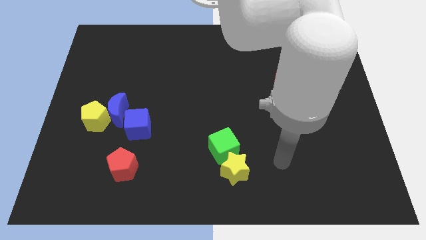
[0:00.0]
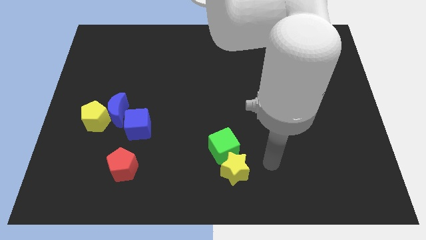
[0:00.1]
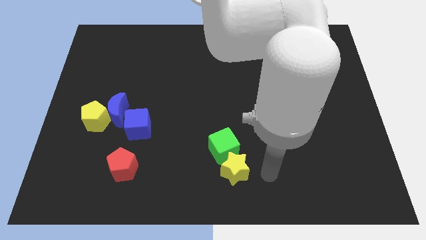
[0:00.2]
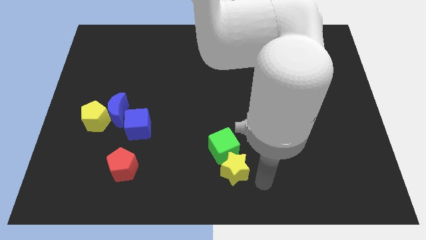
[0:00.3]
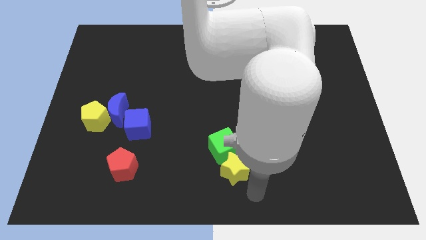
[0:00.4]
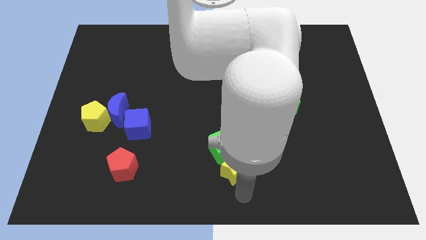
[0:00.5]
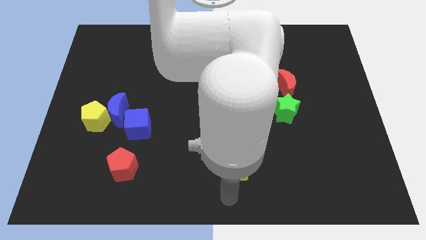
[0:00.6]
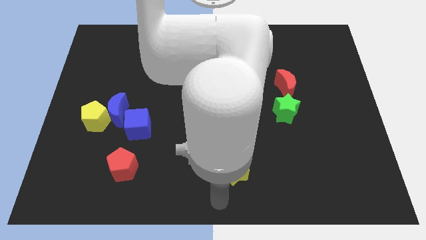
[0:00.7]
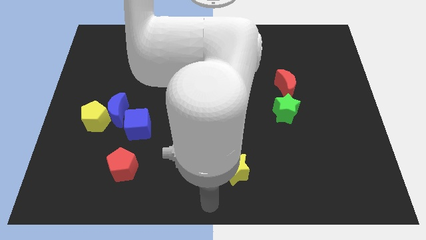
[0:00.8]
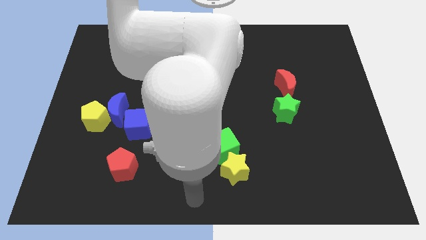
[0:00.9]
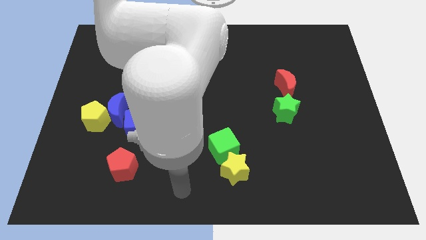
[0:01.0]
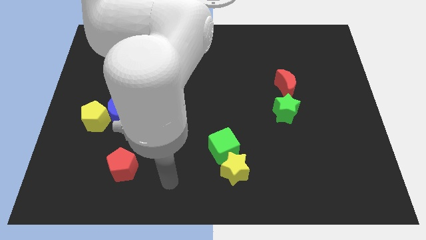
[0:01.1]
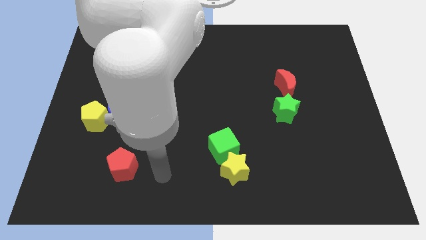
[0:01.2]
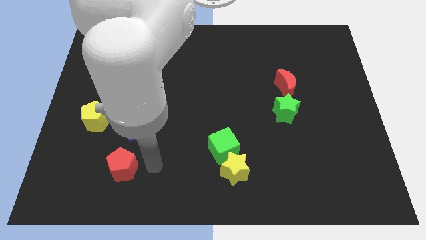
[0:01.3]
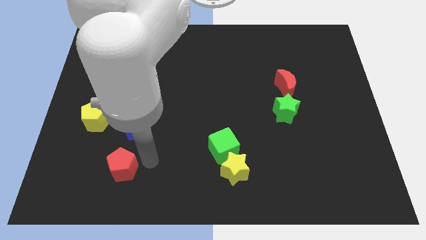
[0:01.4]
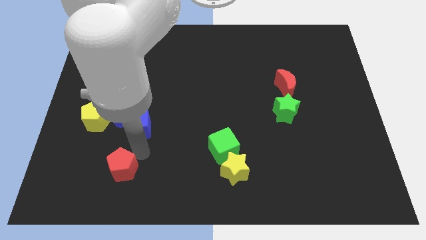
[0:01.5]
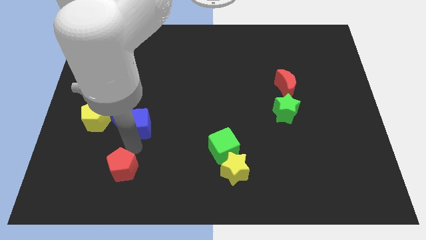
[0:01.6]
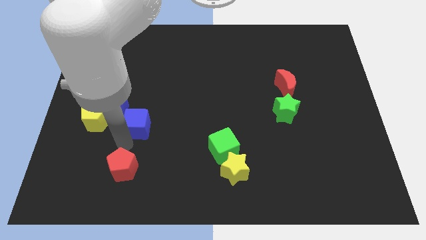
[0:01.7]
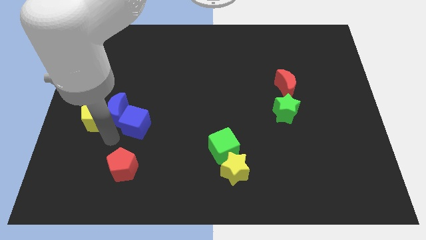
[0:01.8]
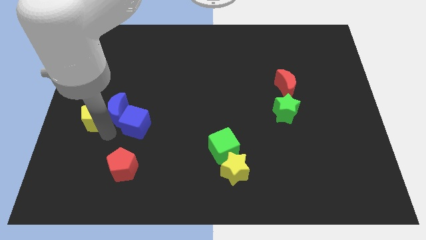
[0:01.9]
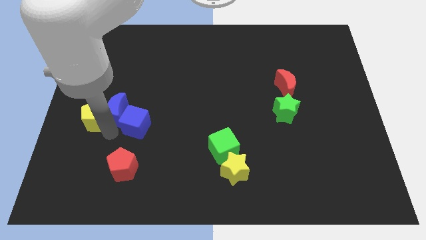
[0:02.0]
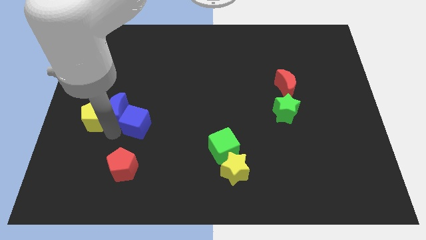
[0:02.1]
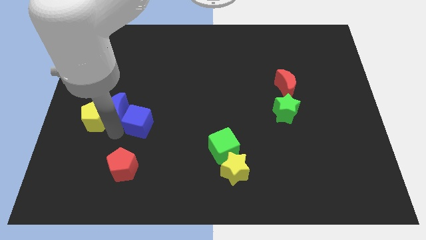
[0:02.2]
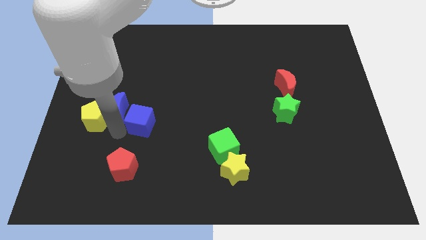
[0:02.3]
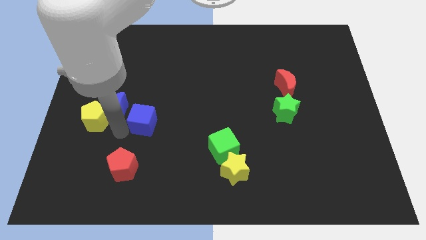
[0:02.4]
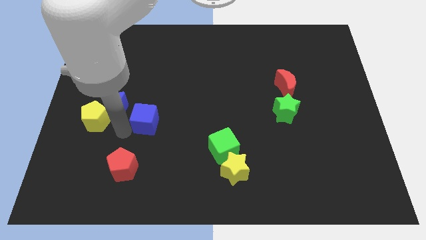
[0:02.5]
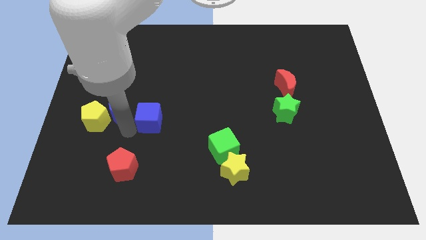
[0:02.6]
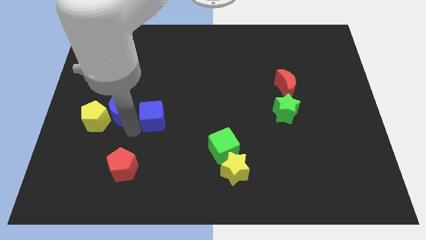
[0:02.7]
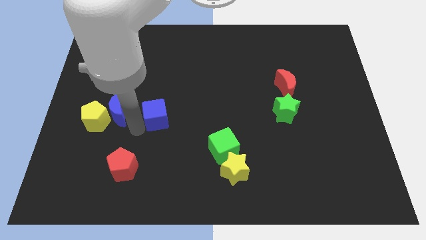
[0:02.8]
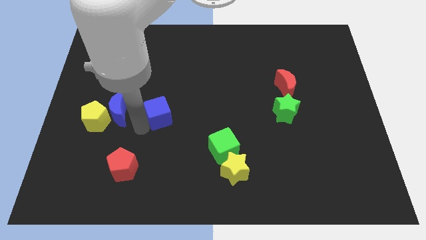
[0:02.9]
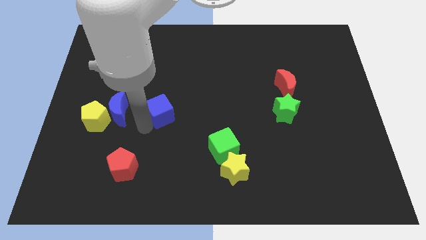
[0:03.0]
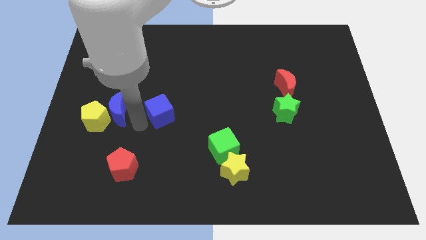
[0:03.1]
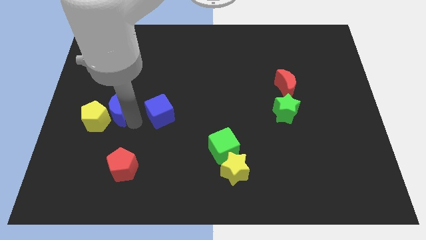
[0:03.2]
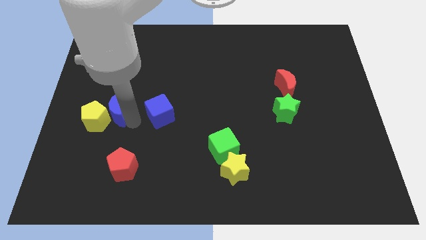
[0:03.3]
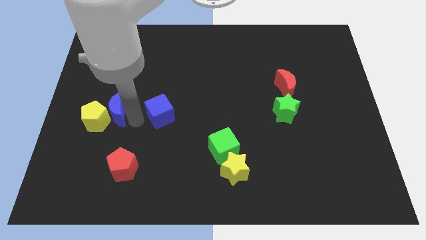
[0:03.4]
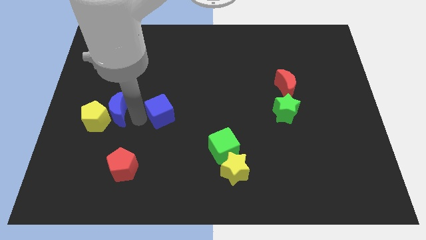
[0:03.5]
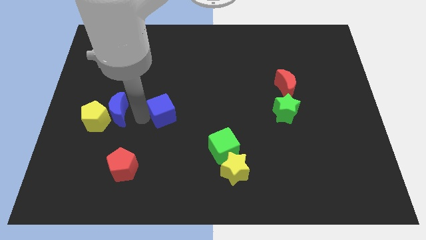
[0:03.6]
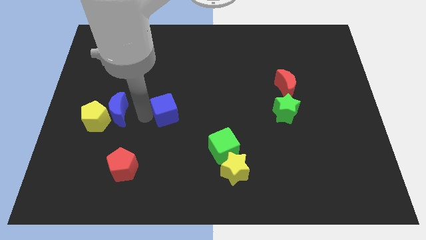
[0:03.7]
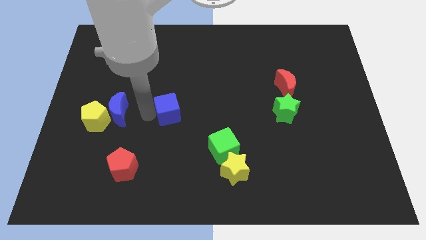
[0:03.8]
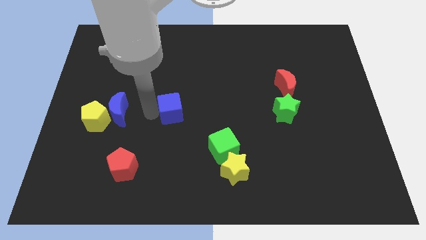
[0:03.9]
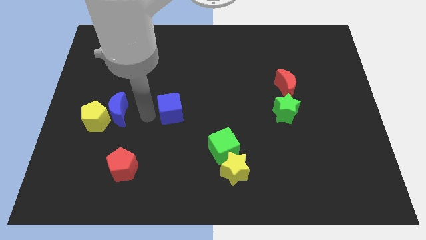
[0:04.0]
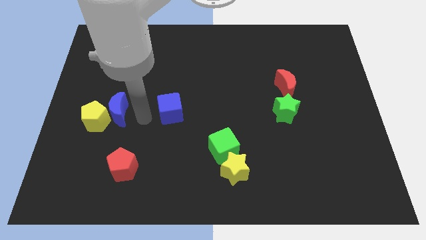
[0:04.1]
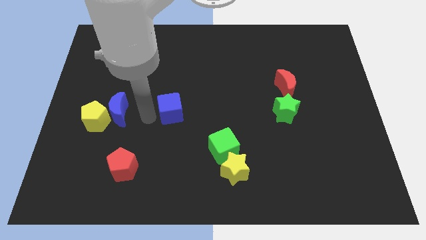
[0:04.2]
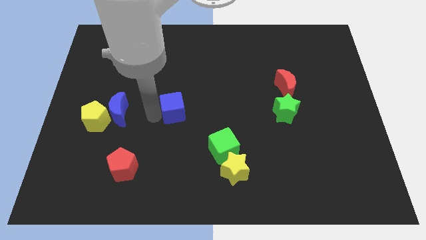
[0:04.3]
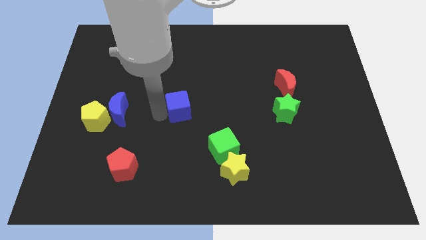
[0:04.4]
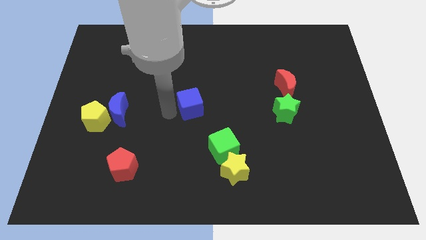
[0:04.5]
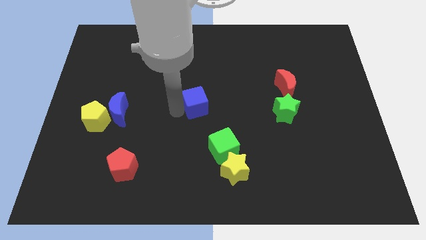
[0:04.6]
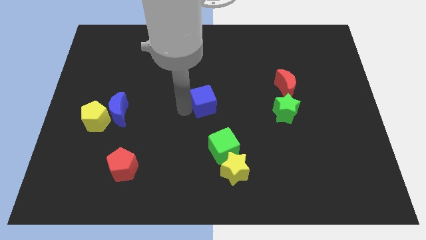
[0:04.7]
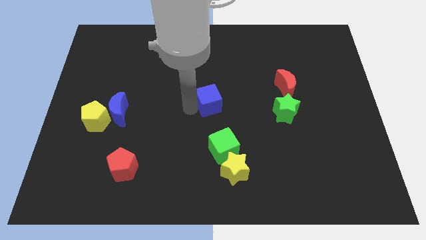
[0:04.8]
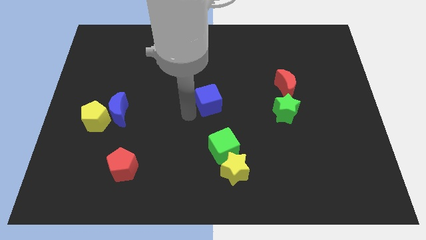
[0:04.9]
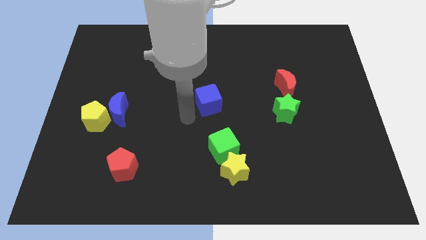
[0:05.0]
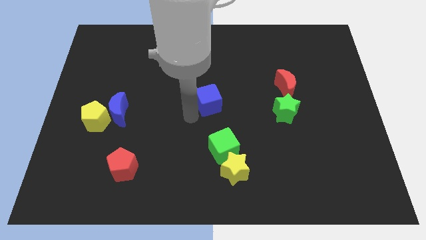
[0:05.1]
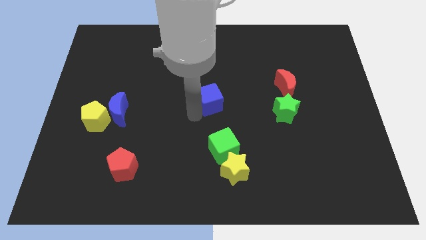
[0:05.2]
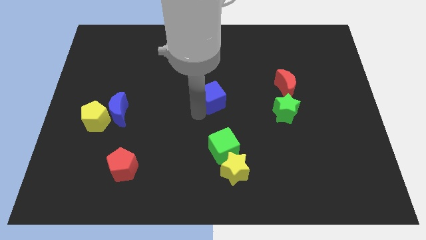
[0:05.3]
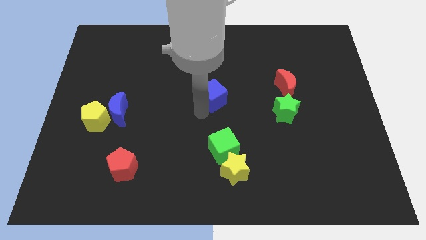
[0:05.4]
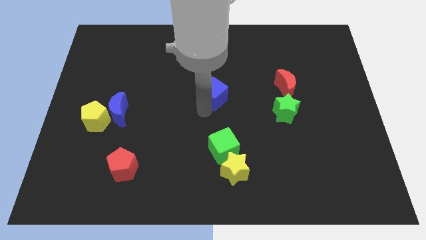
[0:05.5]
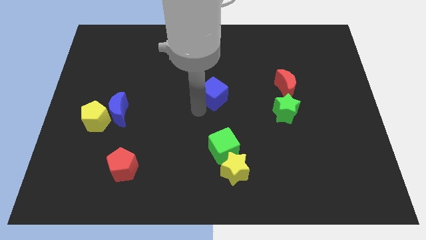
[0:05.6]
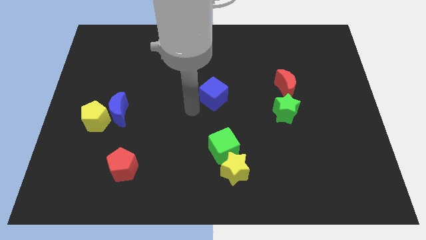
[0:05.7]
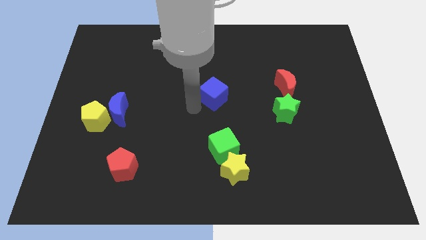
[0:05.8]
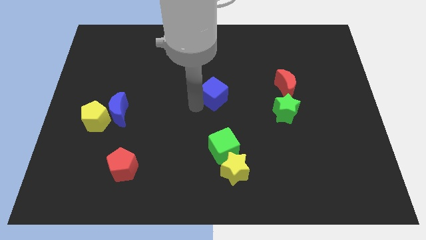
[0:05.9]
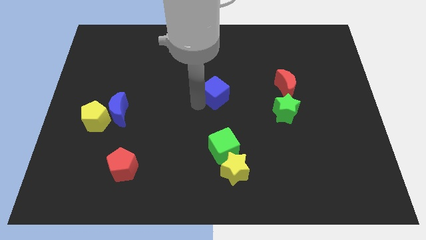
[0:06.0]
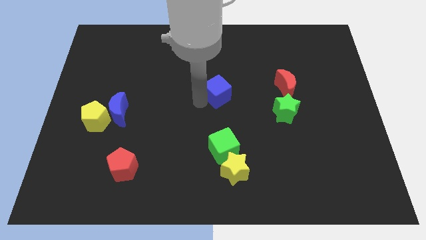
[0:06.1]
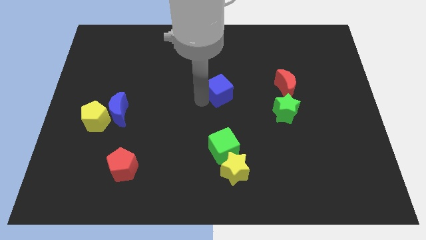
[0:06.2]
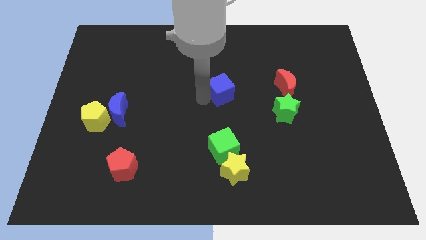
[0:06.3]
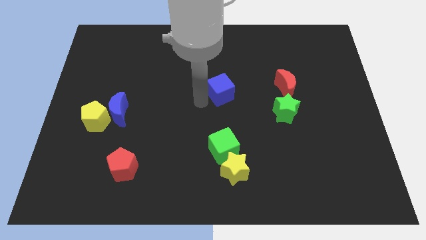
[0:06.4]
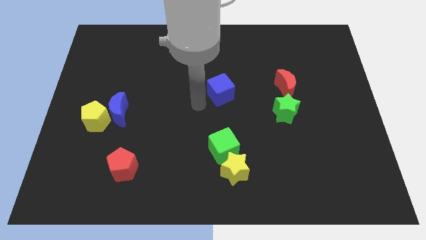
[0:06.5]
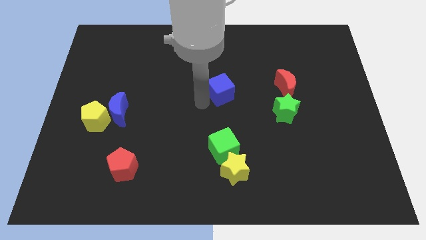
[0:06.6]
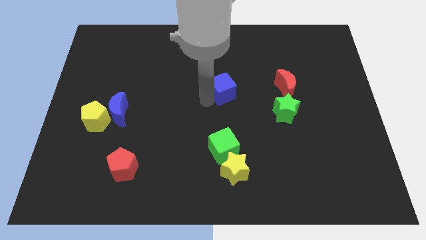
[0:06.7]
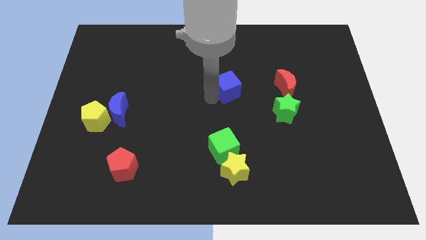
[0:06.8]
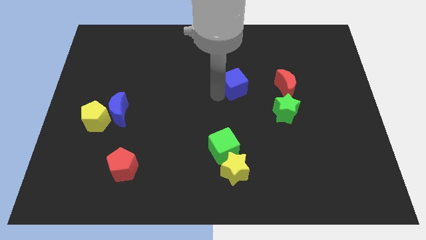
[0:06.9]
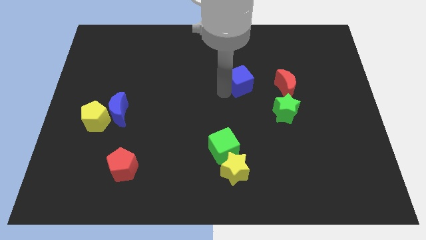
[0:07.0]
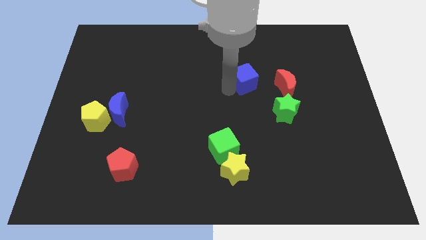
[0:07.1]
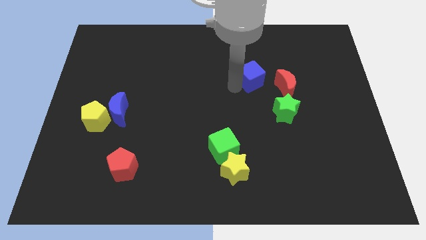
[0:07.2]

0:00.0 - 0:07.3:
move the blue cube to the top left side of the red moon
